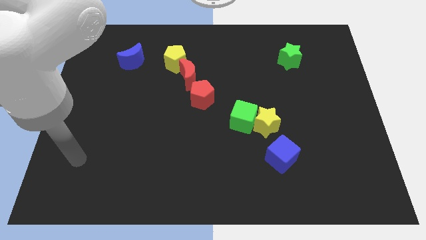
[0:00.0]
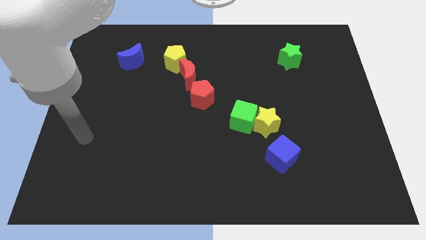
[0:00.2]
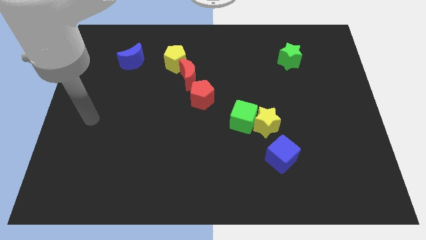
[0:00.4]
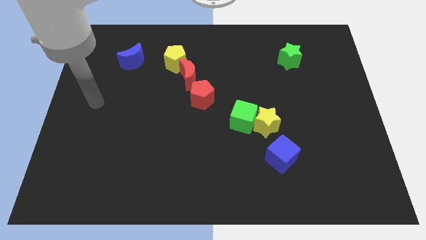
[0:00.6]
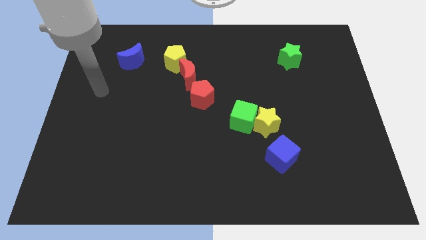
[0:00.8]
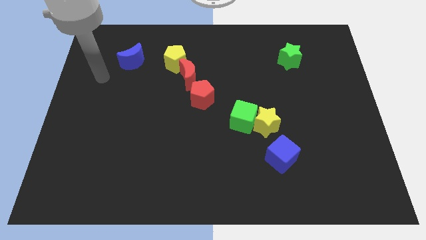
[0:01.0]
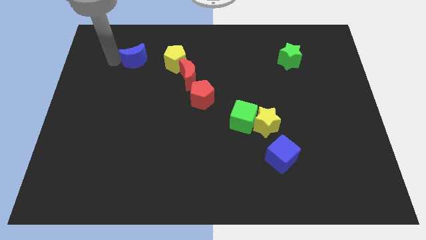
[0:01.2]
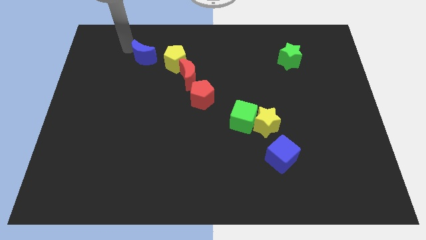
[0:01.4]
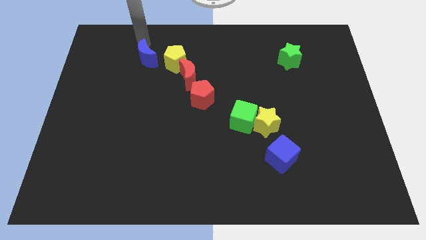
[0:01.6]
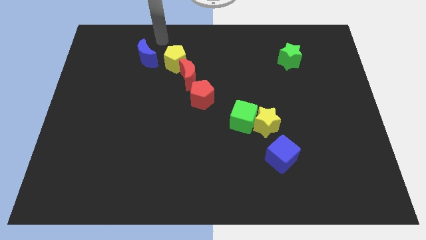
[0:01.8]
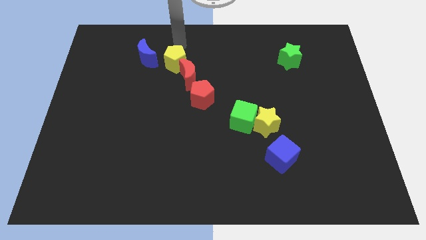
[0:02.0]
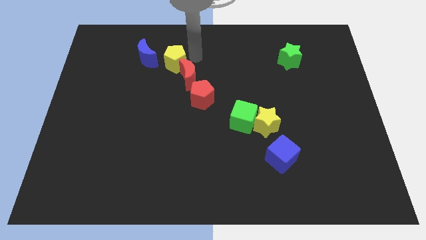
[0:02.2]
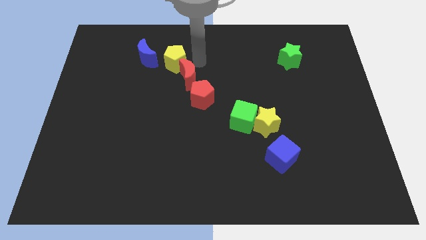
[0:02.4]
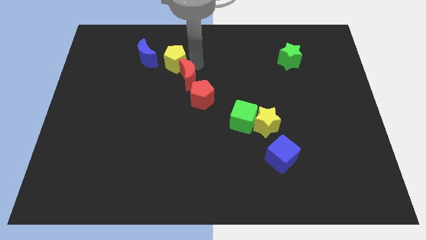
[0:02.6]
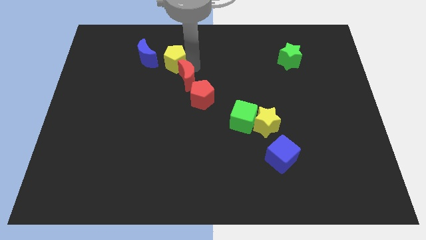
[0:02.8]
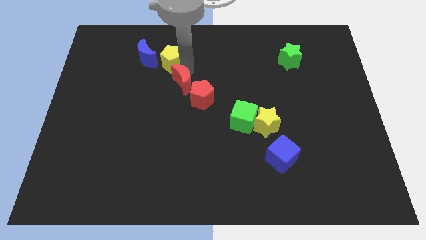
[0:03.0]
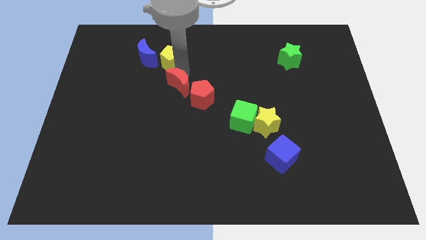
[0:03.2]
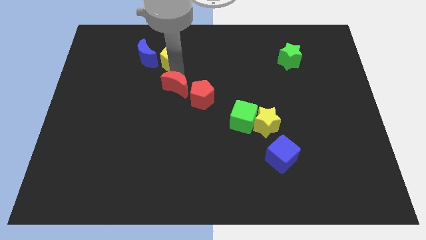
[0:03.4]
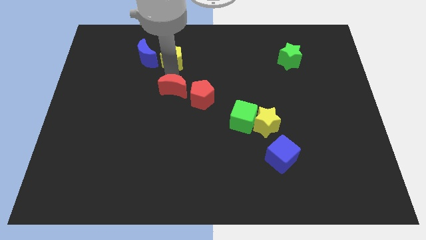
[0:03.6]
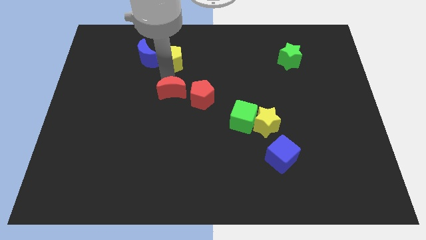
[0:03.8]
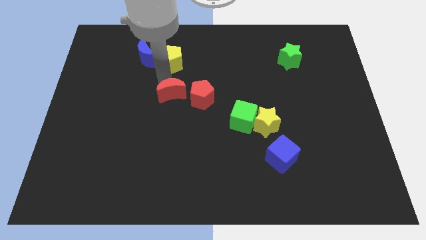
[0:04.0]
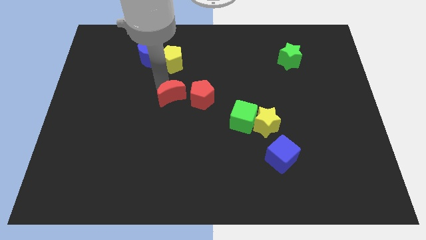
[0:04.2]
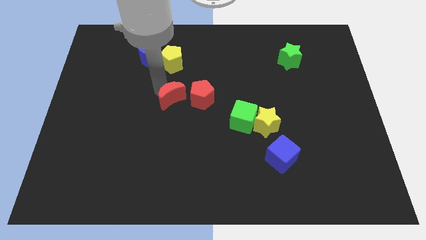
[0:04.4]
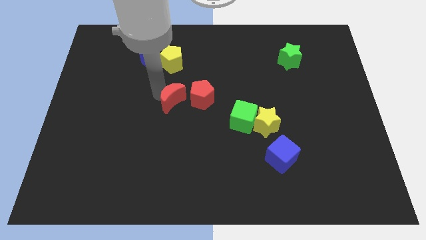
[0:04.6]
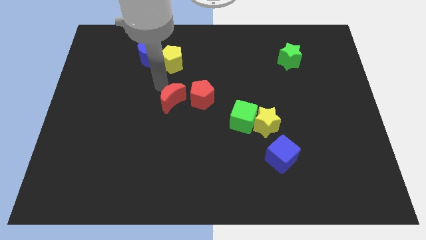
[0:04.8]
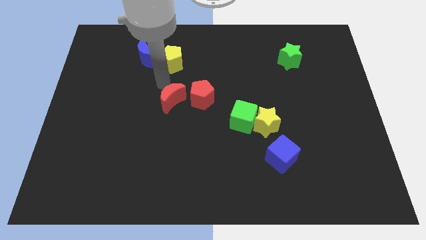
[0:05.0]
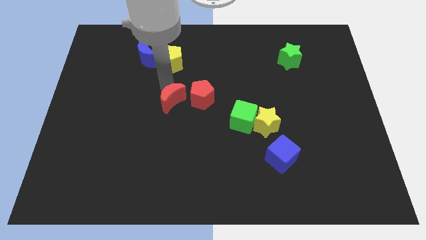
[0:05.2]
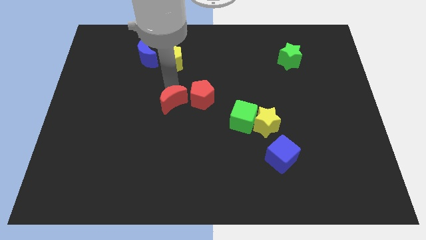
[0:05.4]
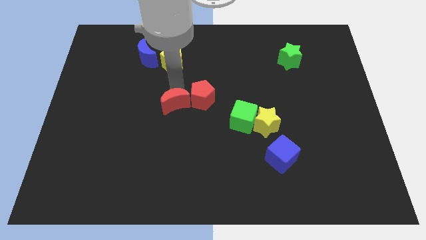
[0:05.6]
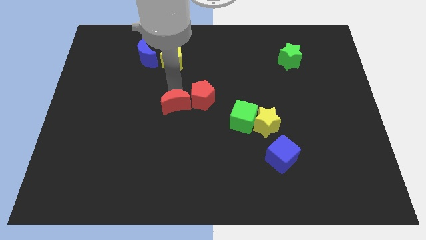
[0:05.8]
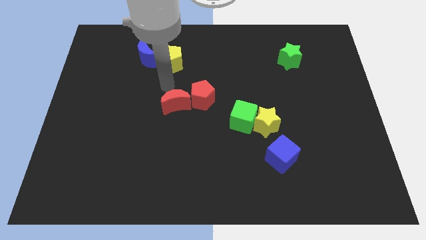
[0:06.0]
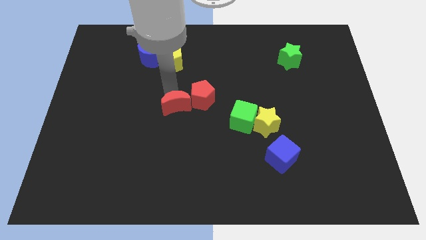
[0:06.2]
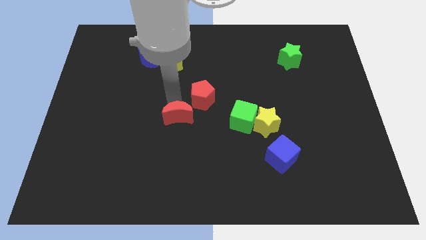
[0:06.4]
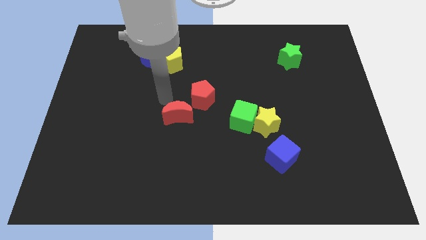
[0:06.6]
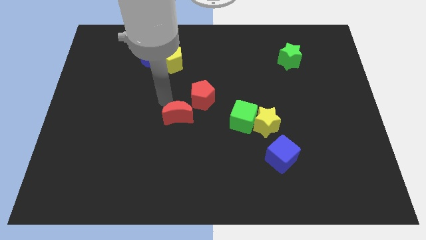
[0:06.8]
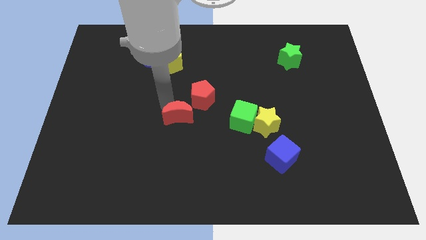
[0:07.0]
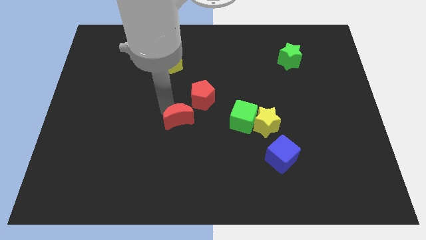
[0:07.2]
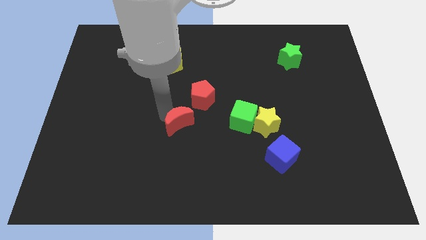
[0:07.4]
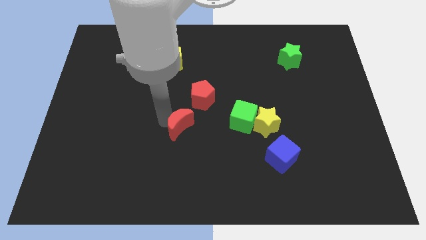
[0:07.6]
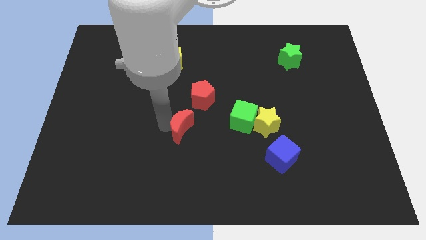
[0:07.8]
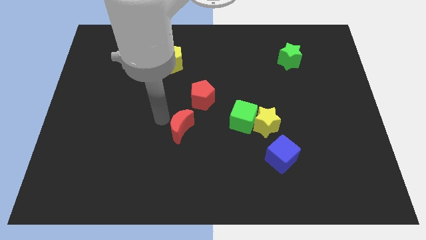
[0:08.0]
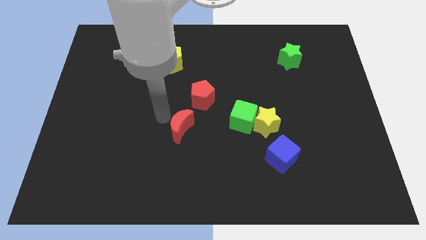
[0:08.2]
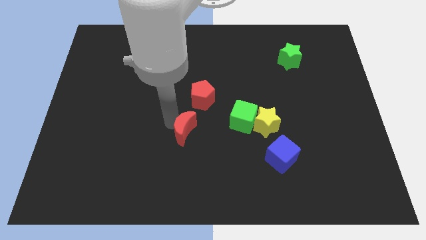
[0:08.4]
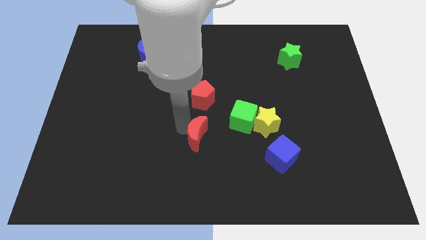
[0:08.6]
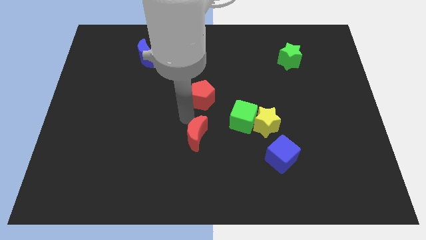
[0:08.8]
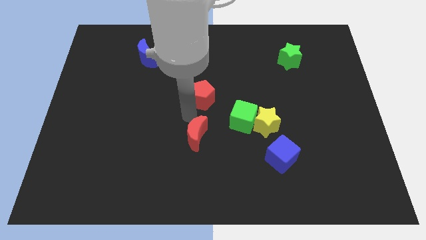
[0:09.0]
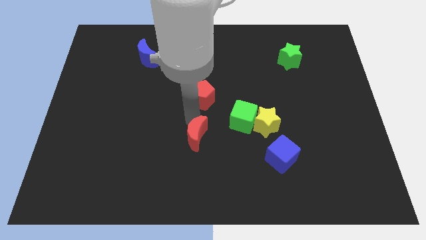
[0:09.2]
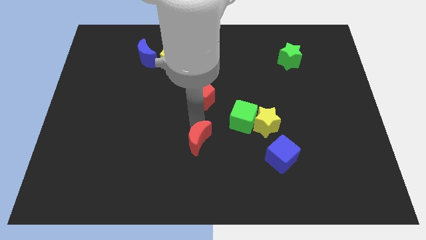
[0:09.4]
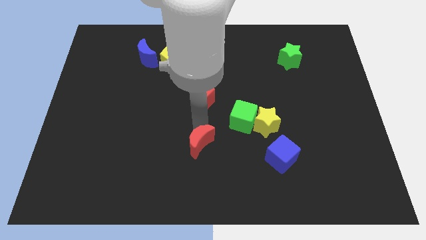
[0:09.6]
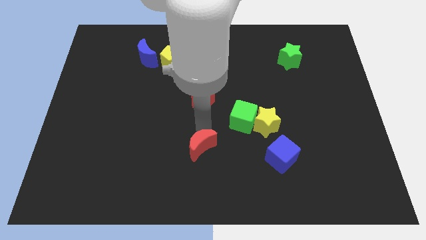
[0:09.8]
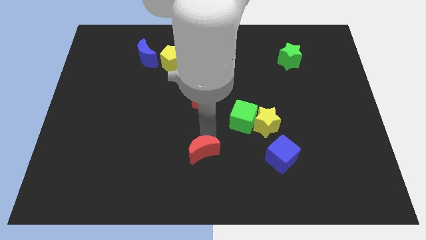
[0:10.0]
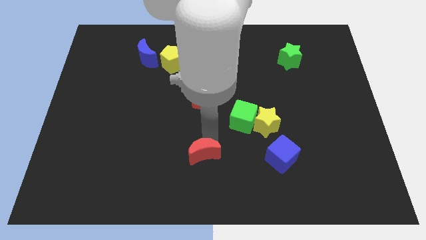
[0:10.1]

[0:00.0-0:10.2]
push the red moon to the bottom side

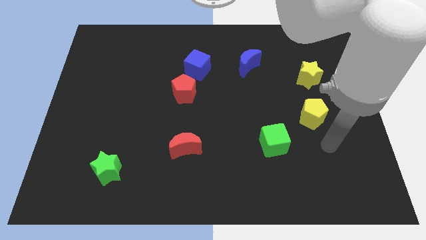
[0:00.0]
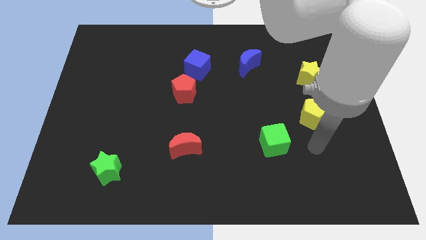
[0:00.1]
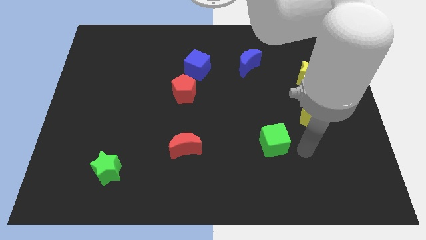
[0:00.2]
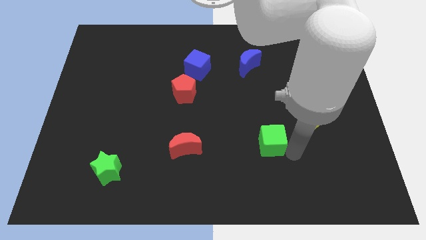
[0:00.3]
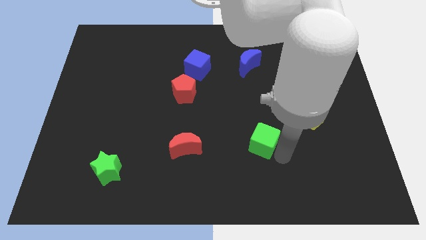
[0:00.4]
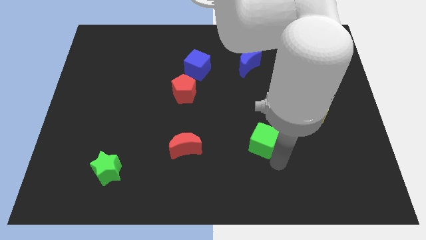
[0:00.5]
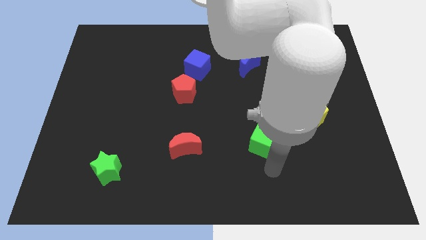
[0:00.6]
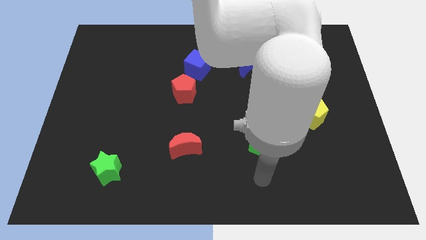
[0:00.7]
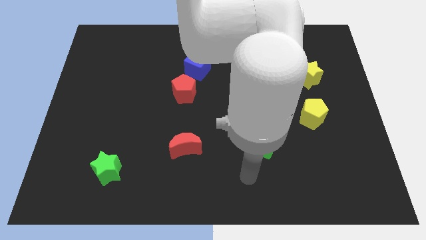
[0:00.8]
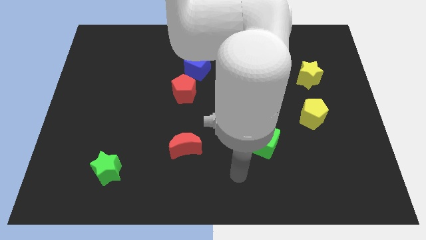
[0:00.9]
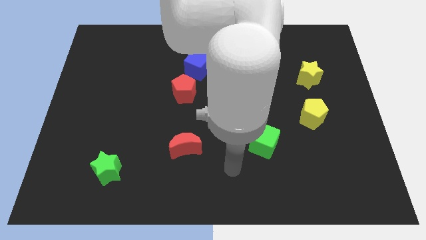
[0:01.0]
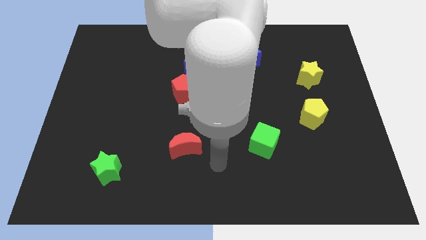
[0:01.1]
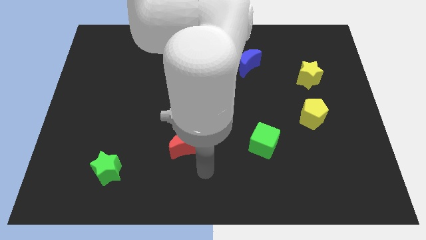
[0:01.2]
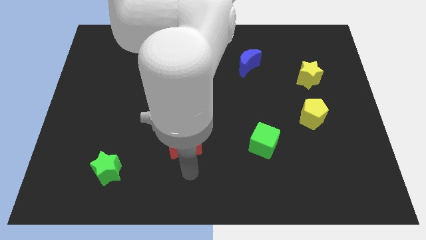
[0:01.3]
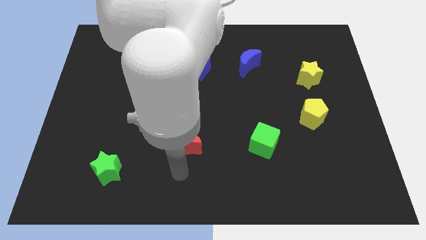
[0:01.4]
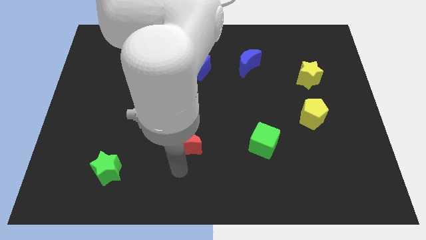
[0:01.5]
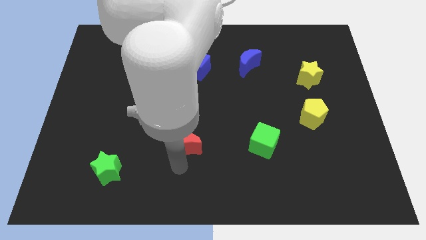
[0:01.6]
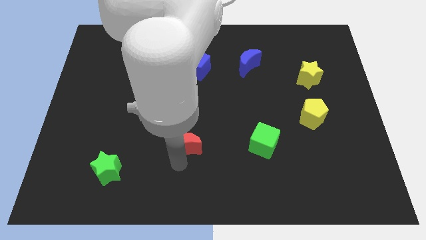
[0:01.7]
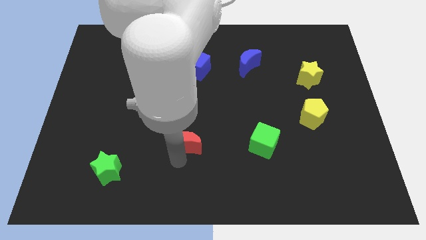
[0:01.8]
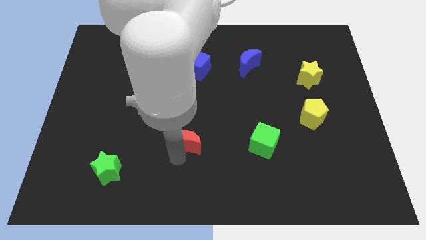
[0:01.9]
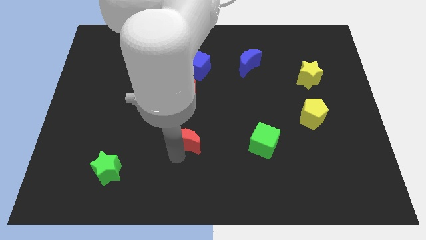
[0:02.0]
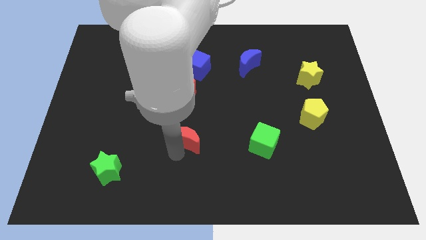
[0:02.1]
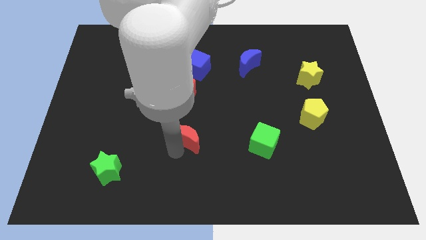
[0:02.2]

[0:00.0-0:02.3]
push the red moon to the middle
